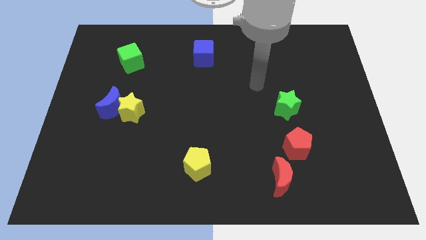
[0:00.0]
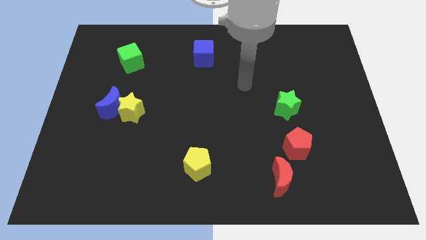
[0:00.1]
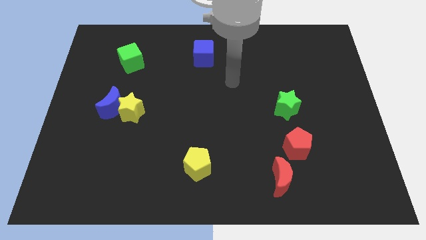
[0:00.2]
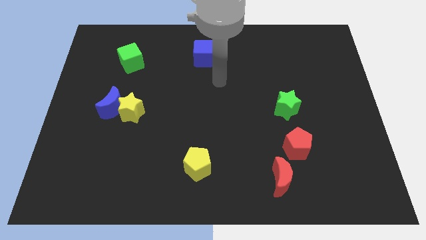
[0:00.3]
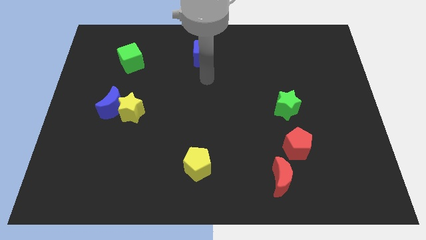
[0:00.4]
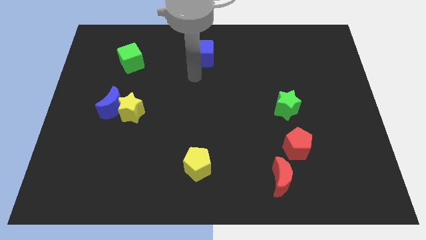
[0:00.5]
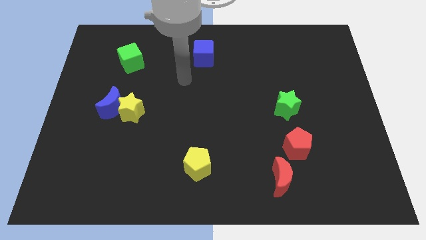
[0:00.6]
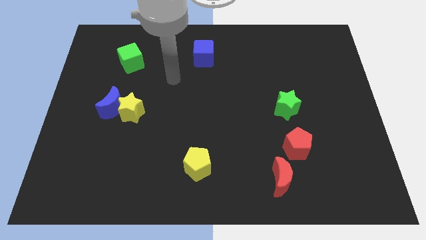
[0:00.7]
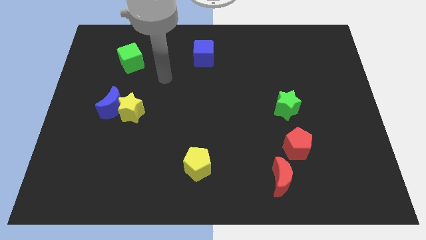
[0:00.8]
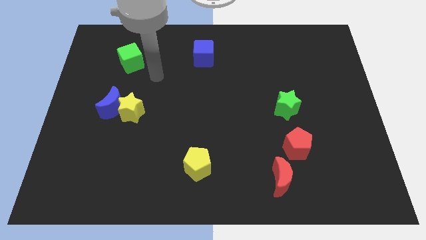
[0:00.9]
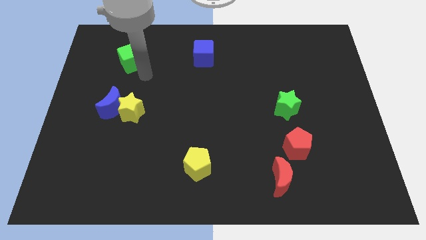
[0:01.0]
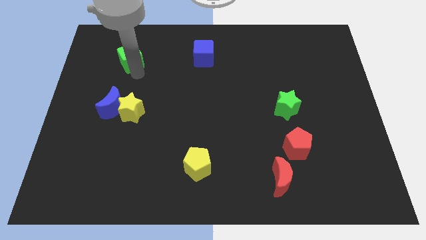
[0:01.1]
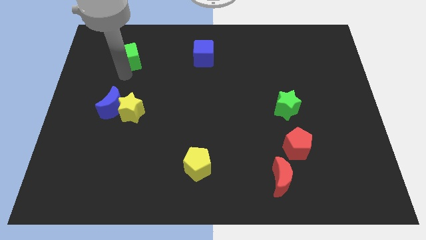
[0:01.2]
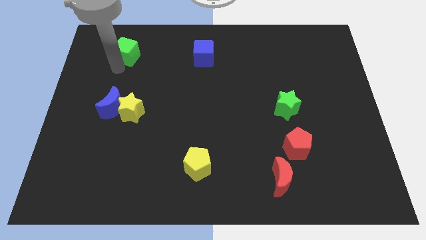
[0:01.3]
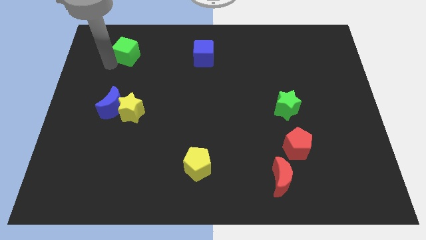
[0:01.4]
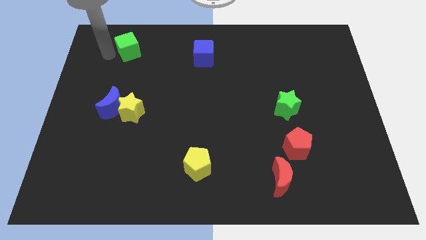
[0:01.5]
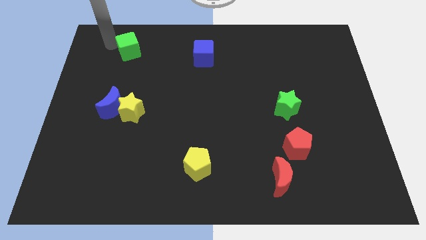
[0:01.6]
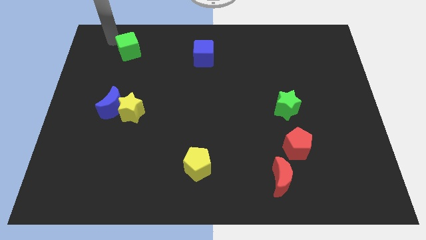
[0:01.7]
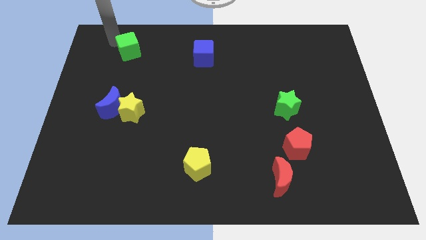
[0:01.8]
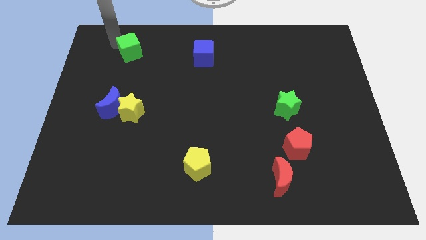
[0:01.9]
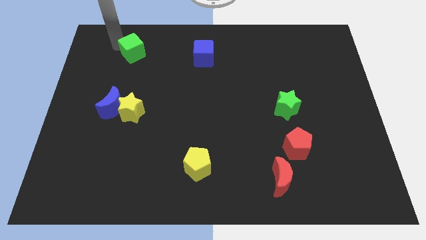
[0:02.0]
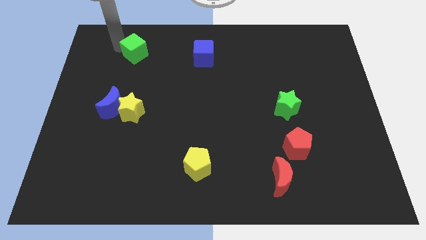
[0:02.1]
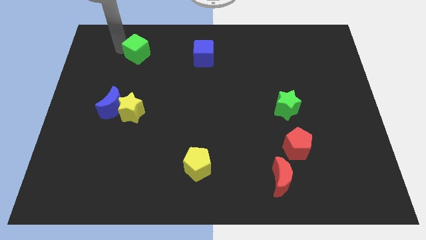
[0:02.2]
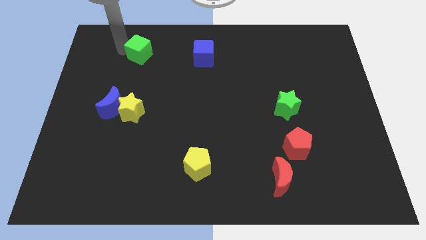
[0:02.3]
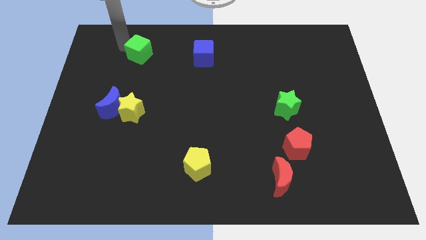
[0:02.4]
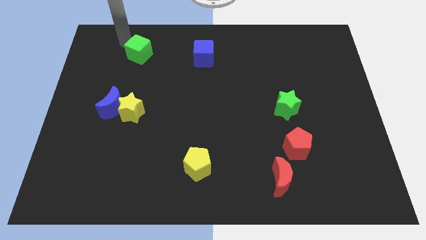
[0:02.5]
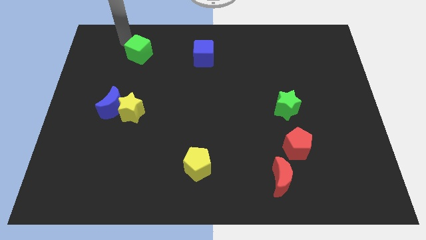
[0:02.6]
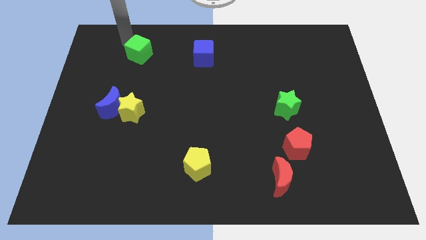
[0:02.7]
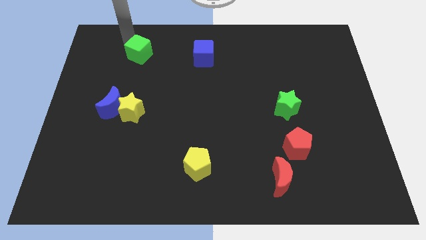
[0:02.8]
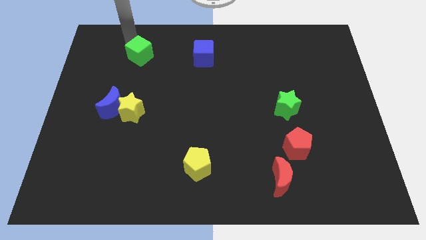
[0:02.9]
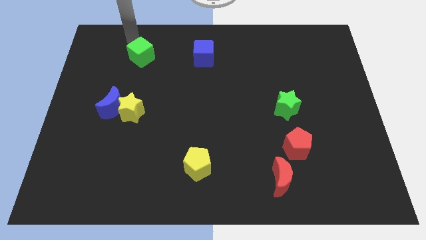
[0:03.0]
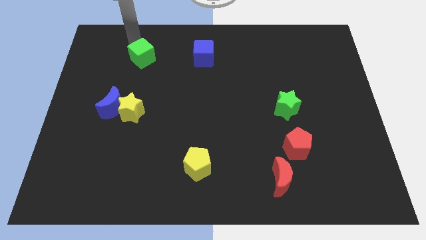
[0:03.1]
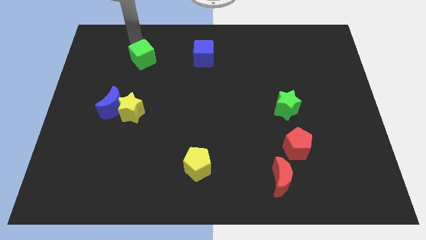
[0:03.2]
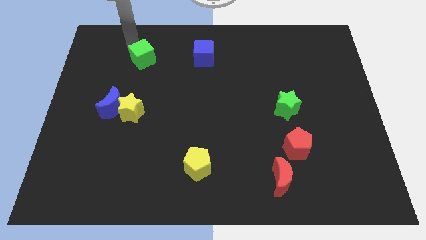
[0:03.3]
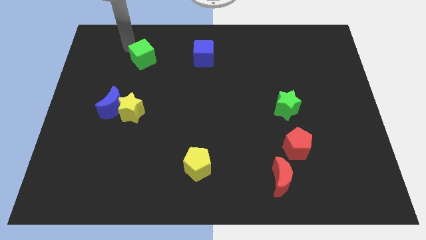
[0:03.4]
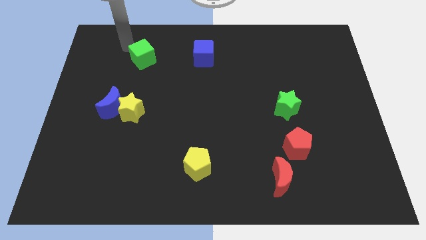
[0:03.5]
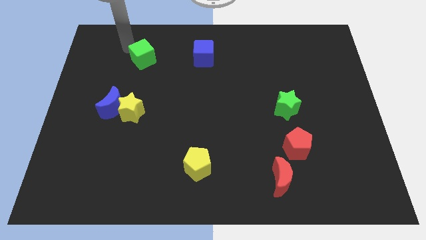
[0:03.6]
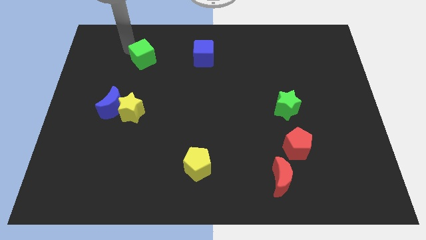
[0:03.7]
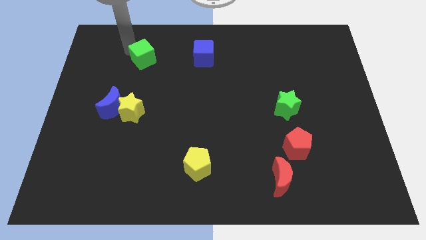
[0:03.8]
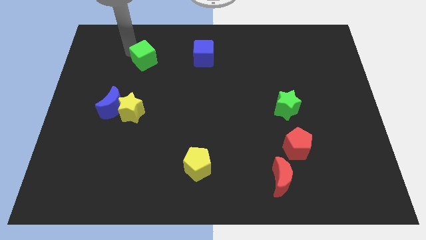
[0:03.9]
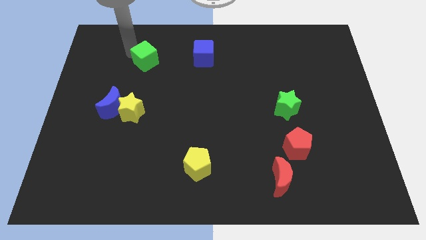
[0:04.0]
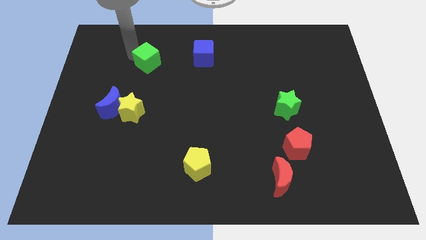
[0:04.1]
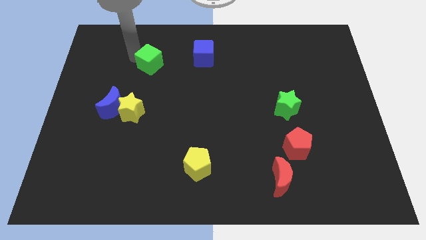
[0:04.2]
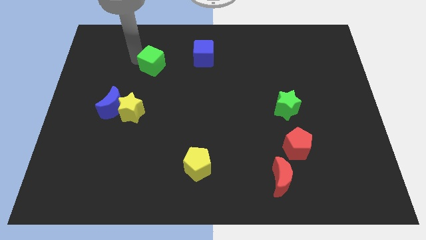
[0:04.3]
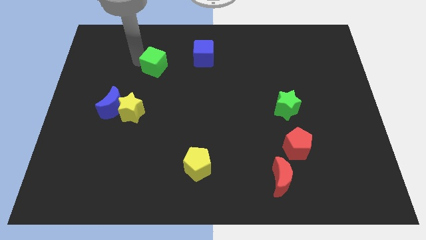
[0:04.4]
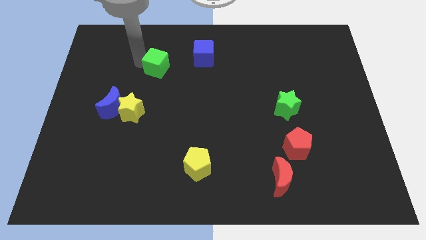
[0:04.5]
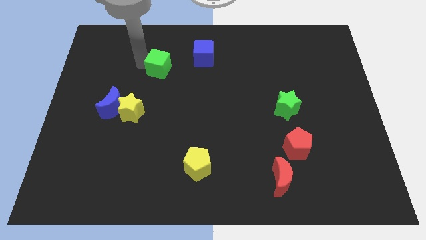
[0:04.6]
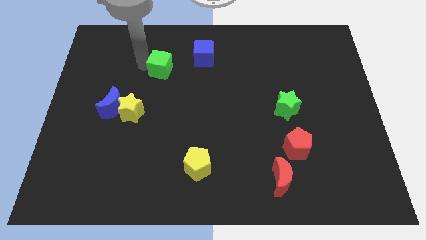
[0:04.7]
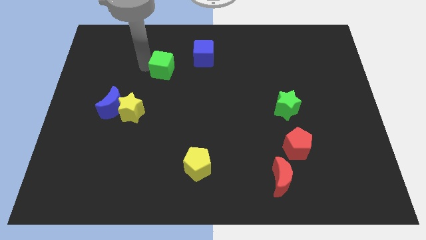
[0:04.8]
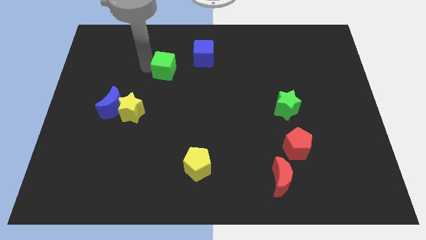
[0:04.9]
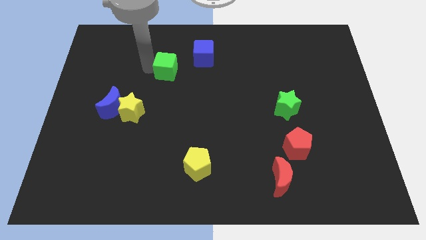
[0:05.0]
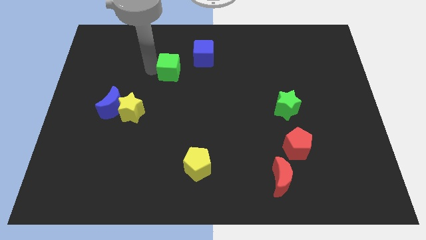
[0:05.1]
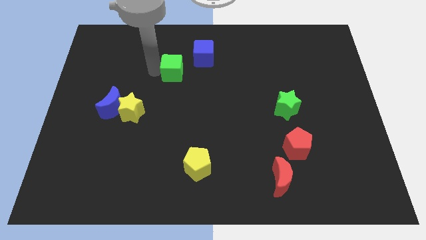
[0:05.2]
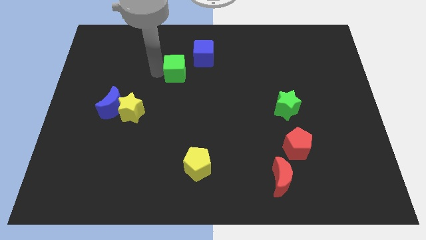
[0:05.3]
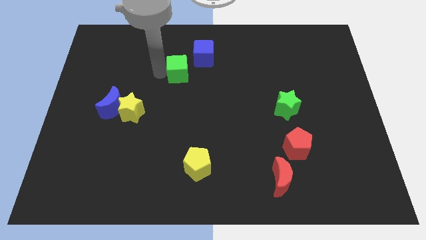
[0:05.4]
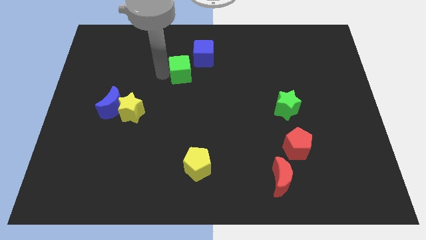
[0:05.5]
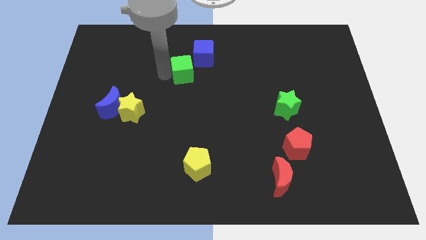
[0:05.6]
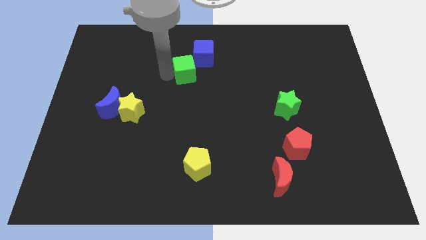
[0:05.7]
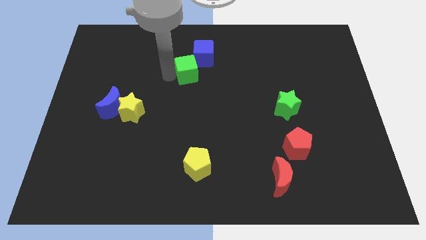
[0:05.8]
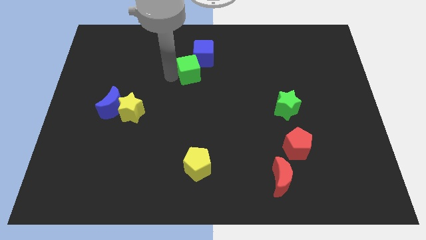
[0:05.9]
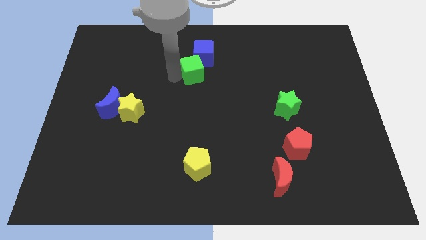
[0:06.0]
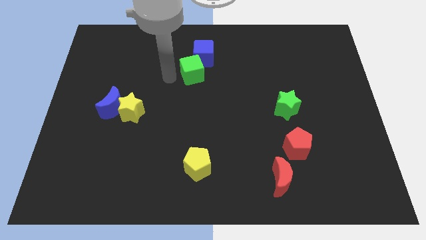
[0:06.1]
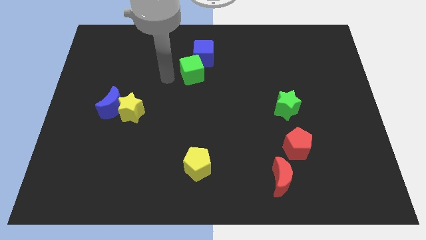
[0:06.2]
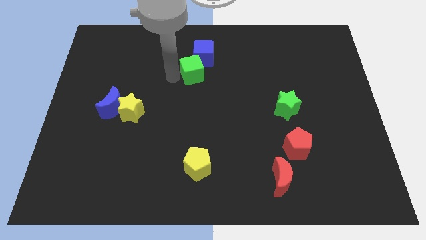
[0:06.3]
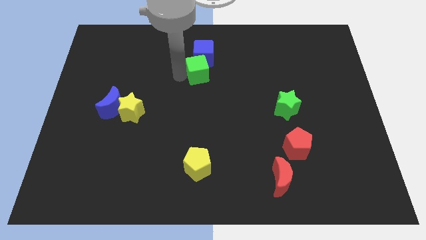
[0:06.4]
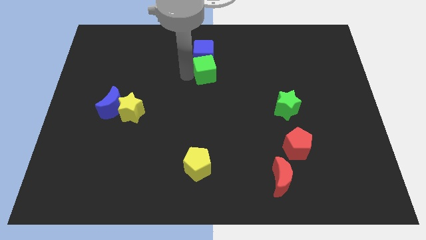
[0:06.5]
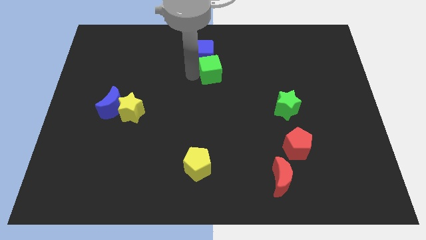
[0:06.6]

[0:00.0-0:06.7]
move the green cube to the right

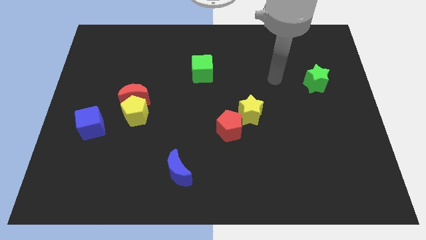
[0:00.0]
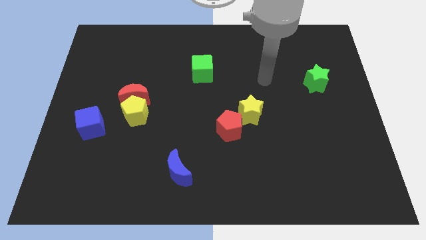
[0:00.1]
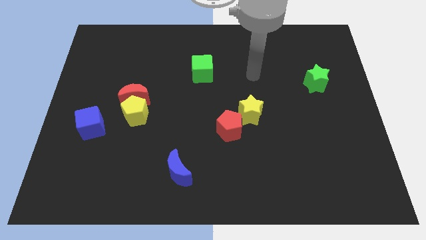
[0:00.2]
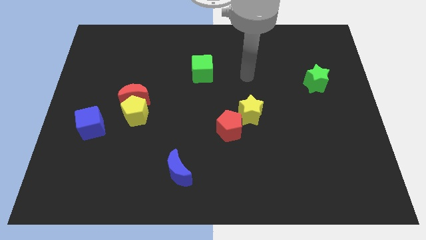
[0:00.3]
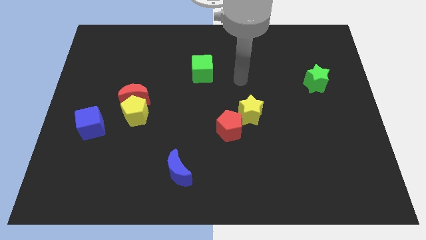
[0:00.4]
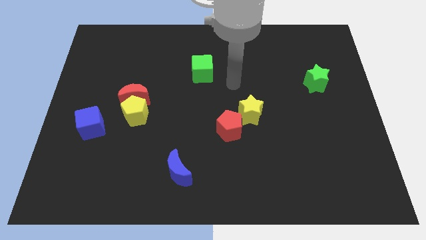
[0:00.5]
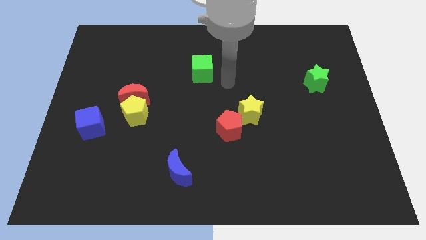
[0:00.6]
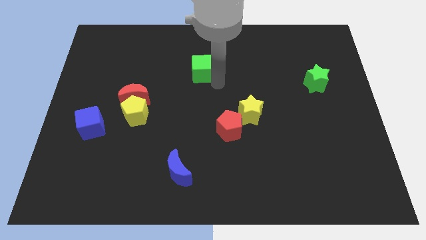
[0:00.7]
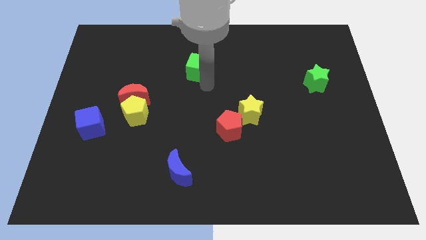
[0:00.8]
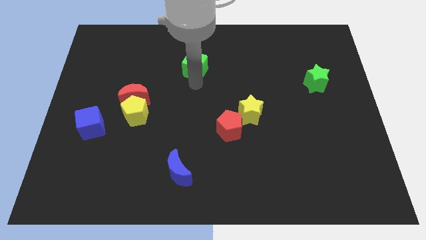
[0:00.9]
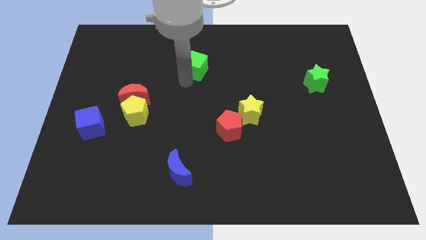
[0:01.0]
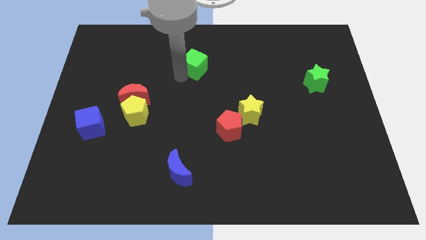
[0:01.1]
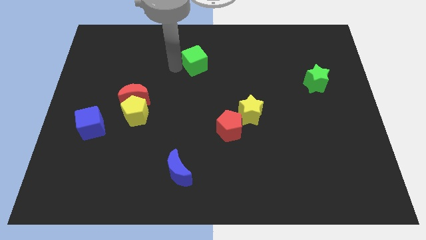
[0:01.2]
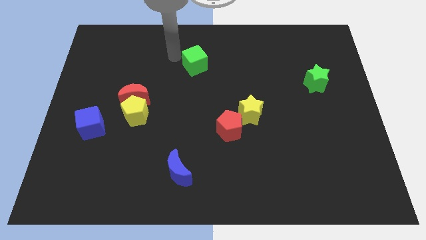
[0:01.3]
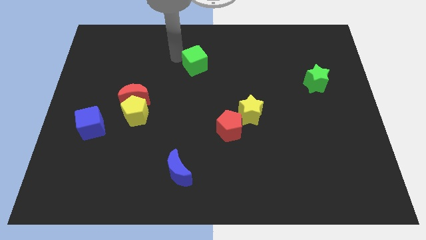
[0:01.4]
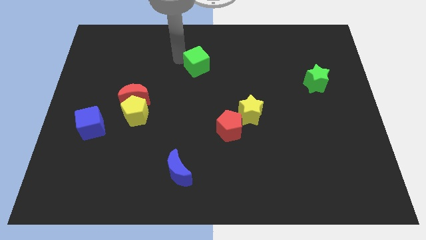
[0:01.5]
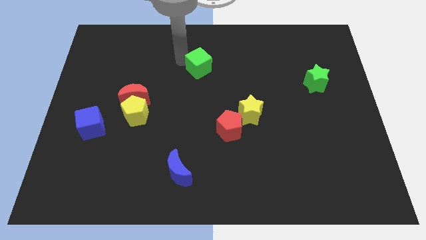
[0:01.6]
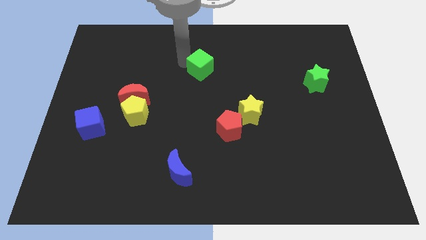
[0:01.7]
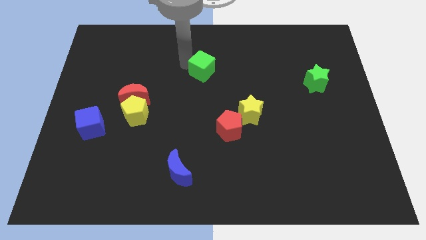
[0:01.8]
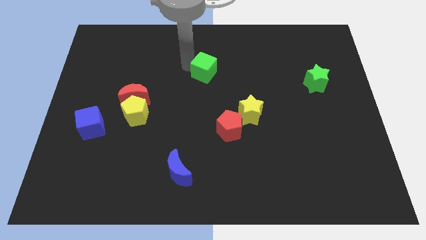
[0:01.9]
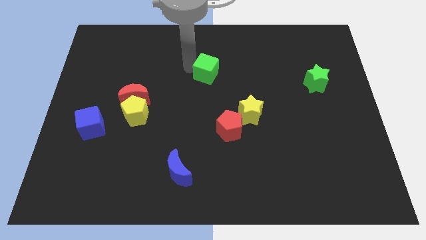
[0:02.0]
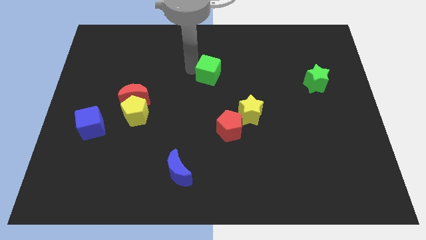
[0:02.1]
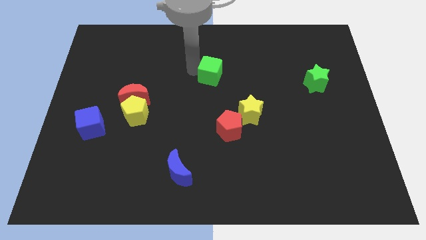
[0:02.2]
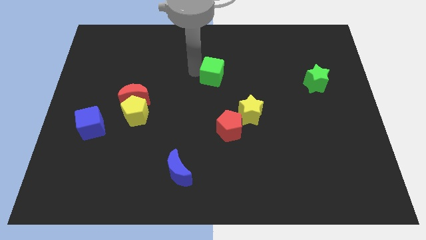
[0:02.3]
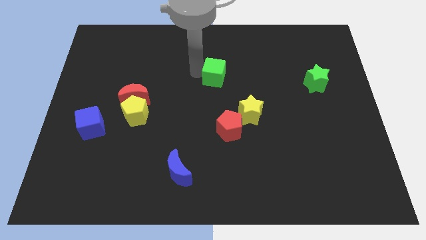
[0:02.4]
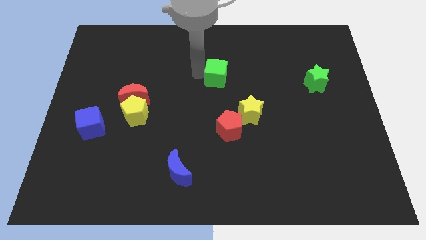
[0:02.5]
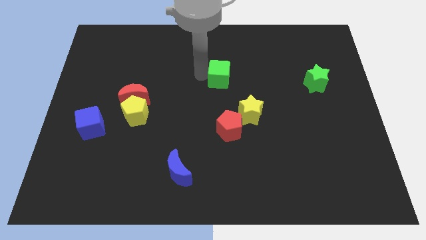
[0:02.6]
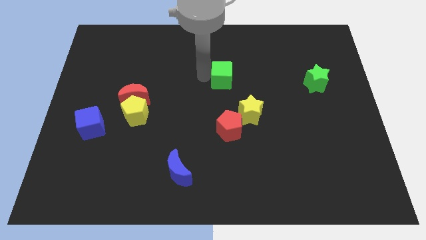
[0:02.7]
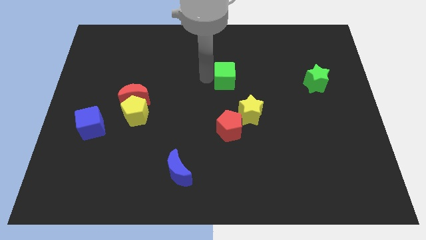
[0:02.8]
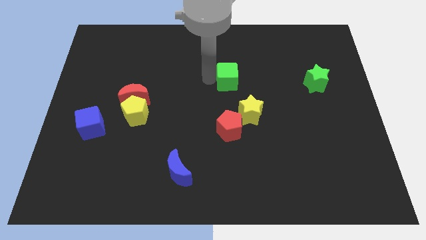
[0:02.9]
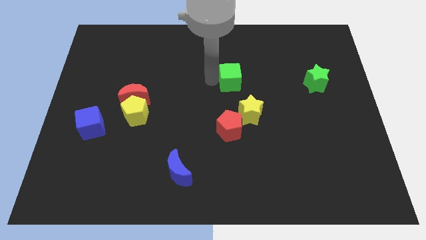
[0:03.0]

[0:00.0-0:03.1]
push the green cube right a little bit
